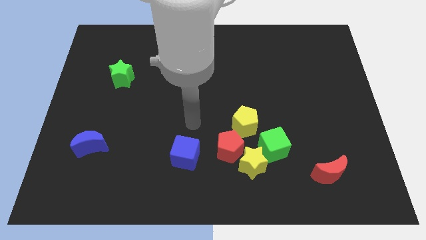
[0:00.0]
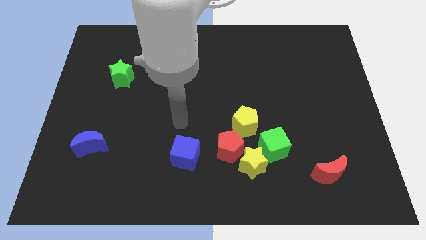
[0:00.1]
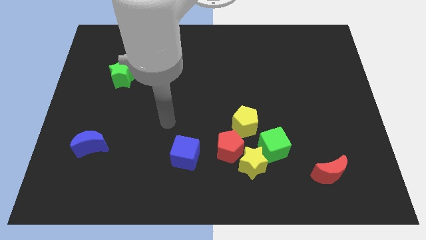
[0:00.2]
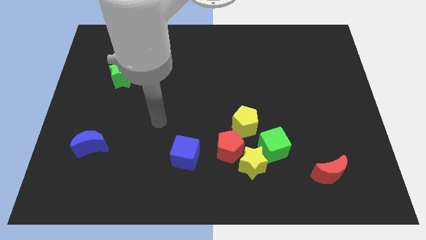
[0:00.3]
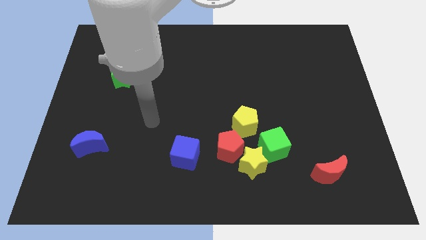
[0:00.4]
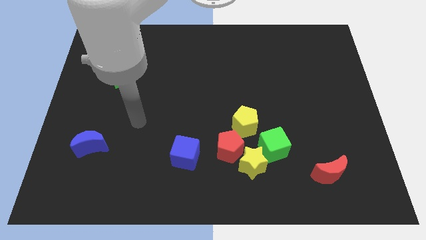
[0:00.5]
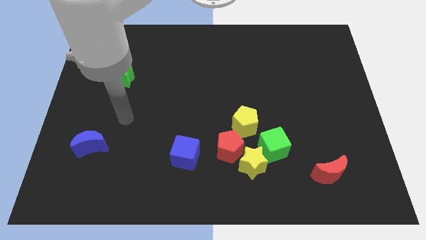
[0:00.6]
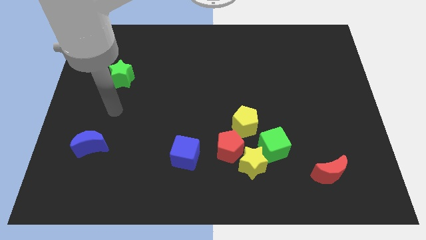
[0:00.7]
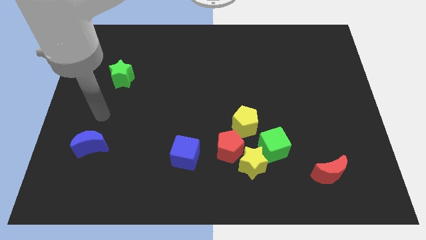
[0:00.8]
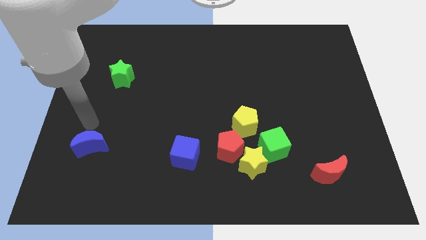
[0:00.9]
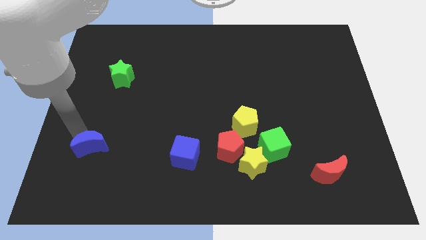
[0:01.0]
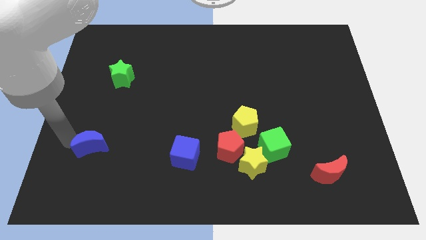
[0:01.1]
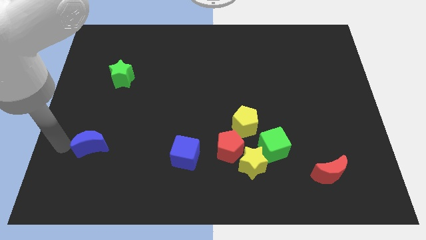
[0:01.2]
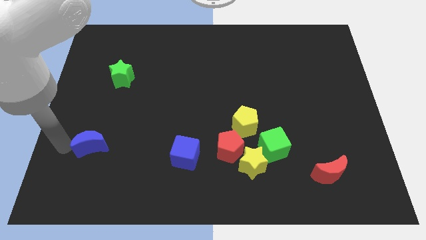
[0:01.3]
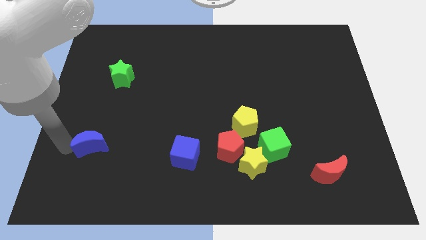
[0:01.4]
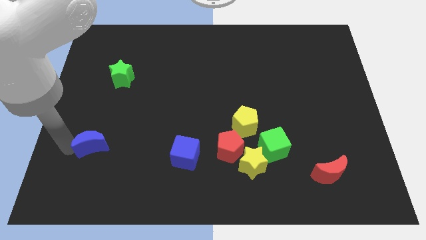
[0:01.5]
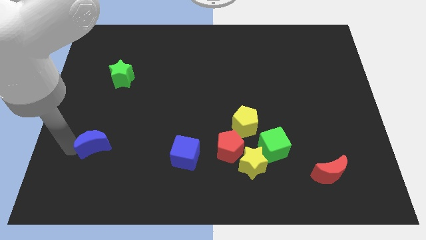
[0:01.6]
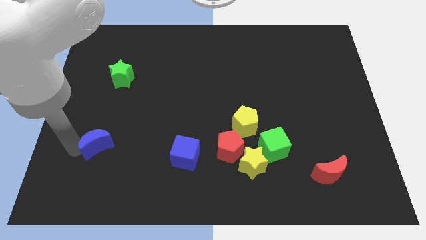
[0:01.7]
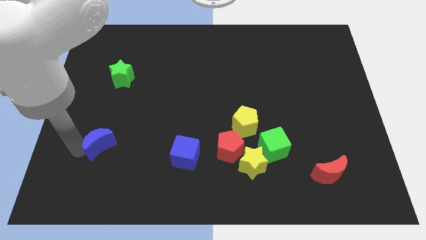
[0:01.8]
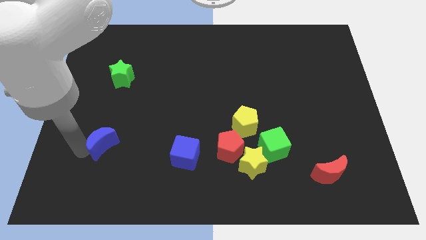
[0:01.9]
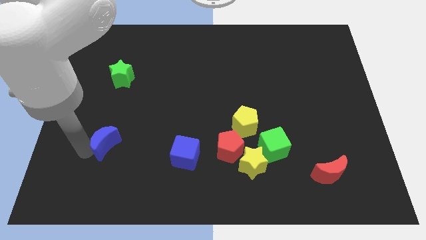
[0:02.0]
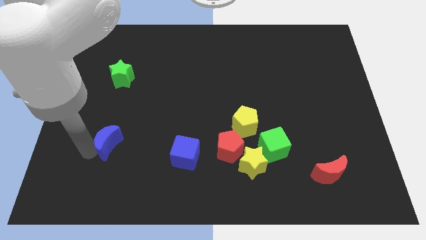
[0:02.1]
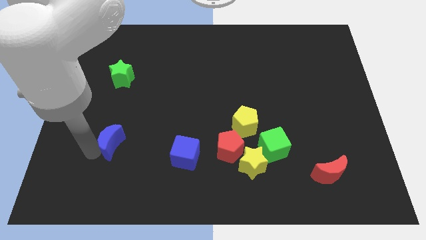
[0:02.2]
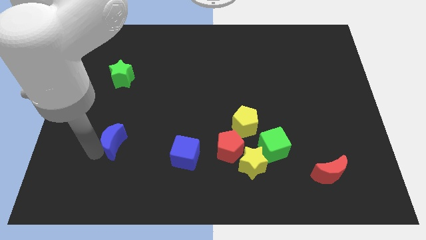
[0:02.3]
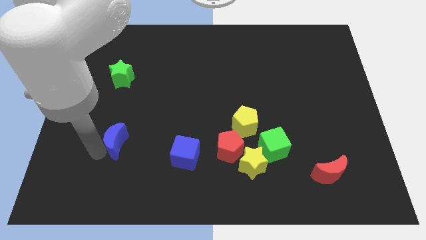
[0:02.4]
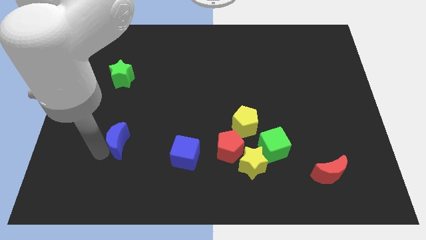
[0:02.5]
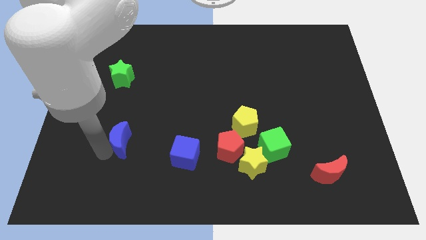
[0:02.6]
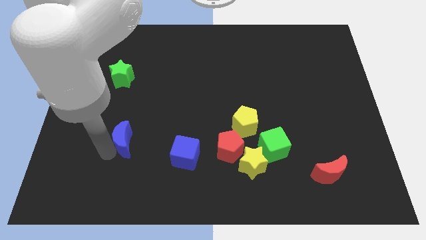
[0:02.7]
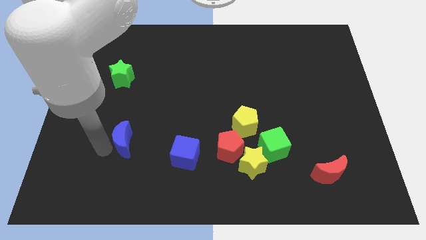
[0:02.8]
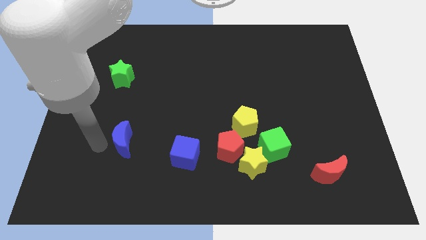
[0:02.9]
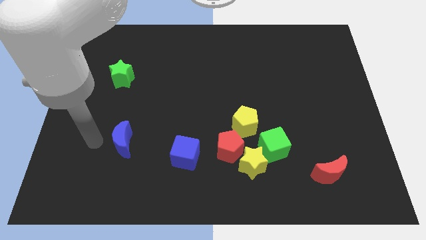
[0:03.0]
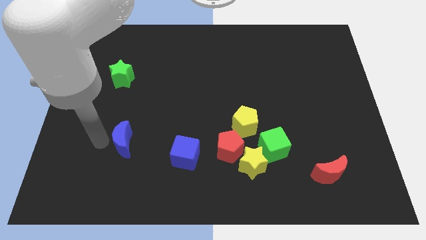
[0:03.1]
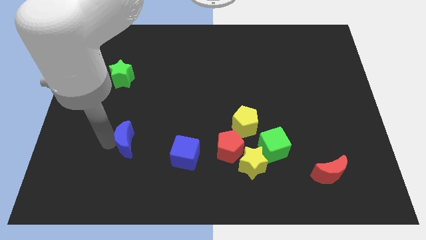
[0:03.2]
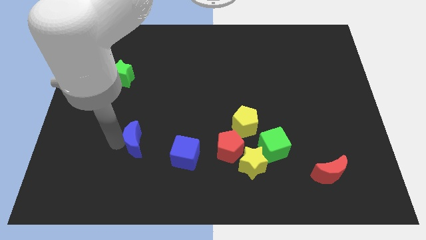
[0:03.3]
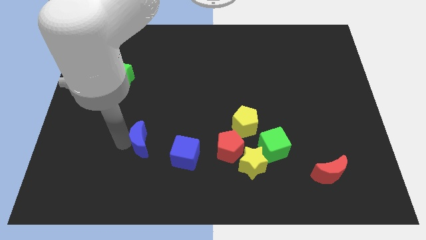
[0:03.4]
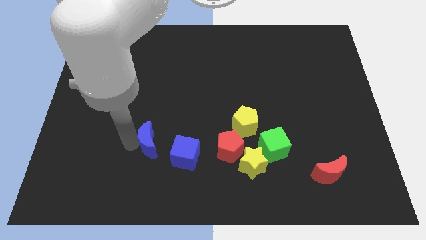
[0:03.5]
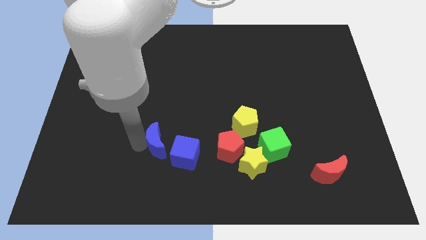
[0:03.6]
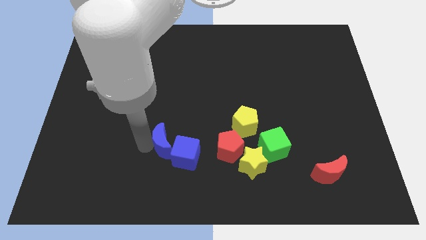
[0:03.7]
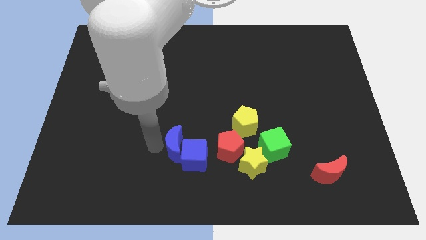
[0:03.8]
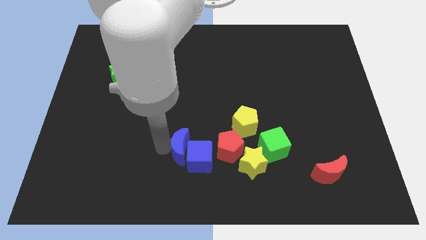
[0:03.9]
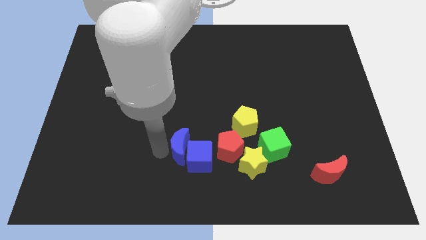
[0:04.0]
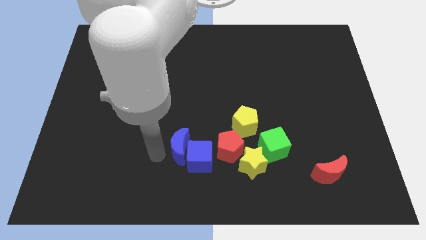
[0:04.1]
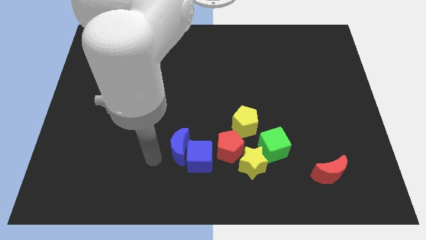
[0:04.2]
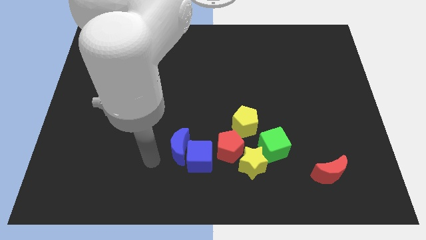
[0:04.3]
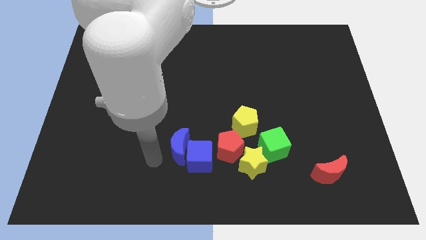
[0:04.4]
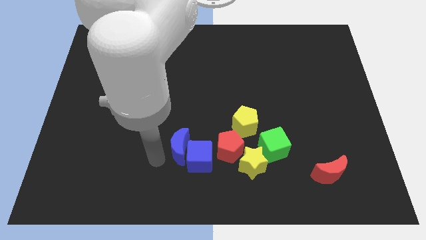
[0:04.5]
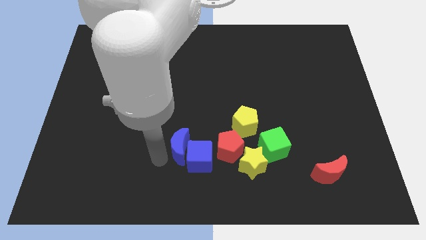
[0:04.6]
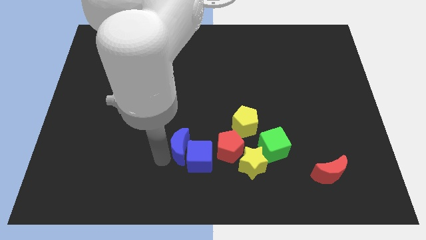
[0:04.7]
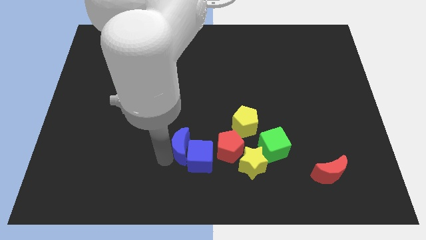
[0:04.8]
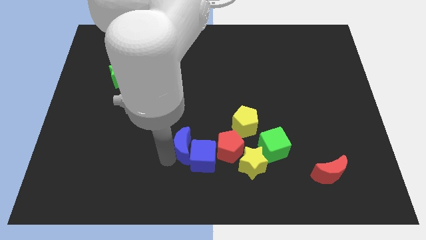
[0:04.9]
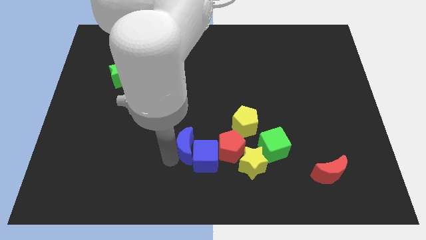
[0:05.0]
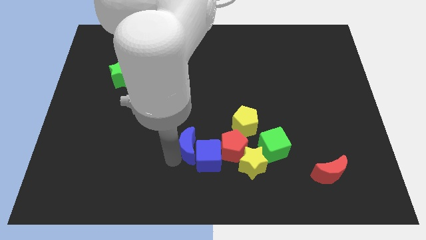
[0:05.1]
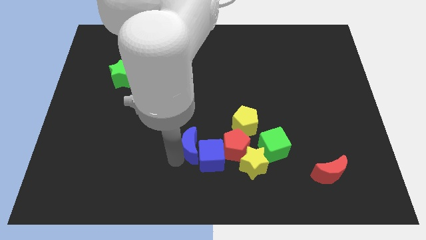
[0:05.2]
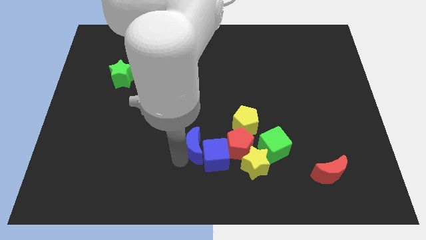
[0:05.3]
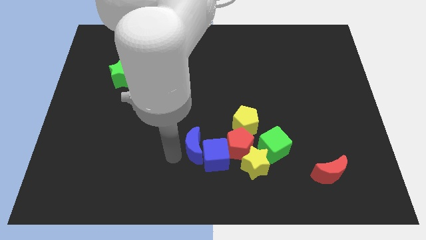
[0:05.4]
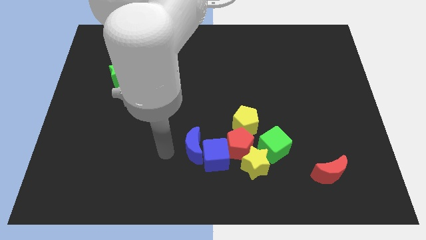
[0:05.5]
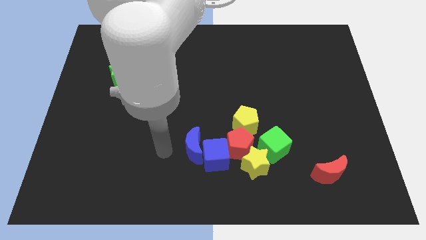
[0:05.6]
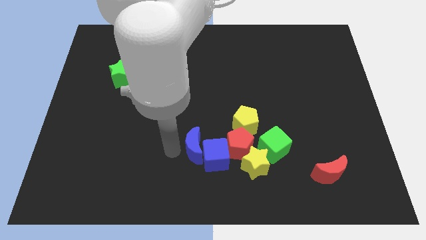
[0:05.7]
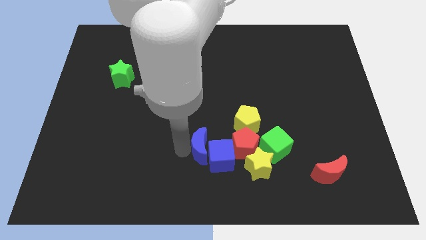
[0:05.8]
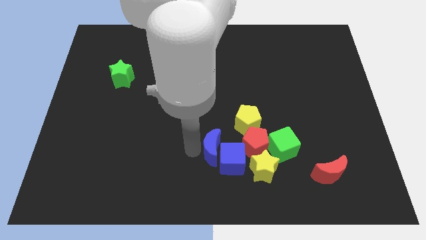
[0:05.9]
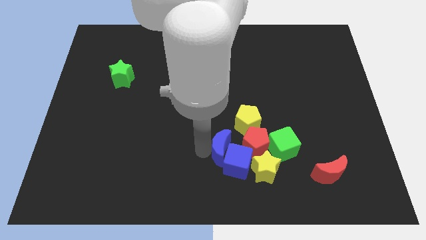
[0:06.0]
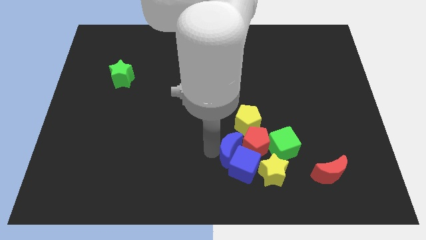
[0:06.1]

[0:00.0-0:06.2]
put the blue moon close to the red pentagon

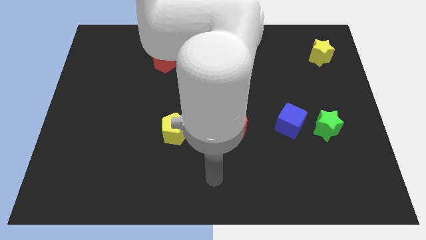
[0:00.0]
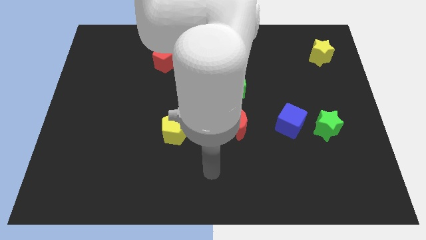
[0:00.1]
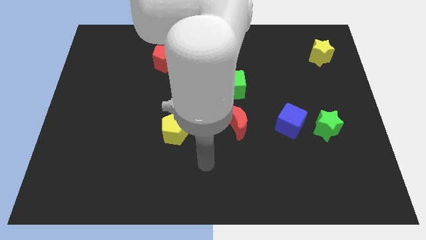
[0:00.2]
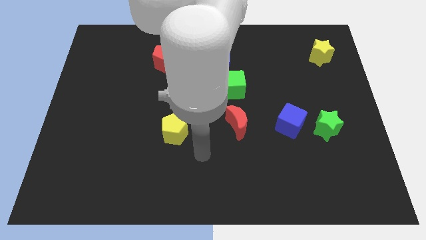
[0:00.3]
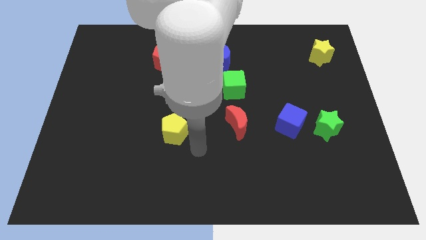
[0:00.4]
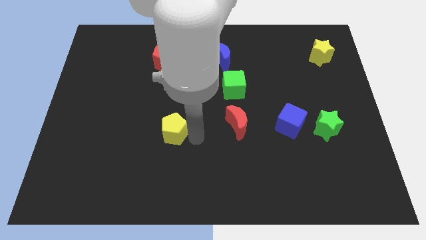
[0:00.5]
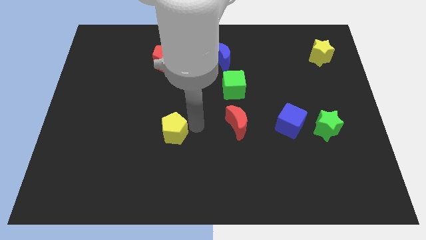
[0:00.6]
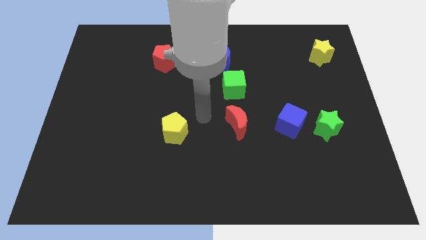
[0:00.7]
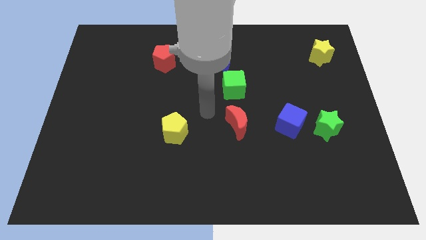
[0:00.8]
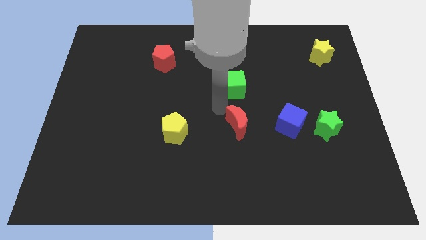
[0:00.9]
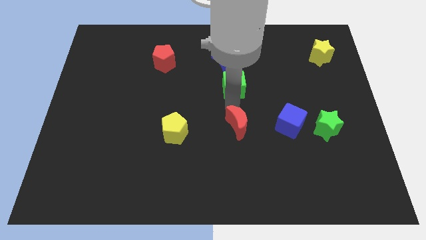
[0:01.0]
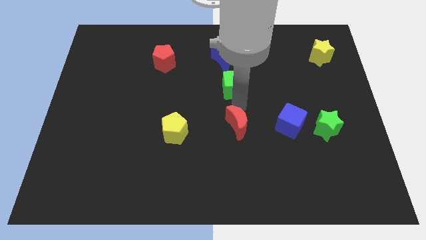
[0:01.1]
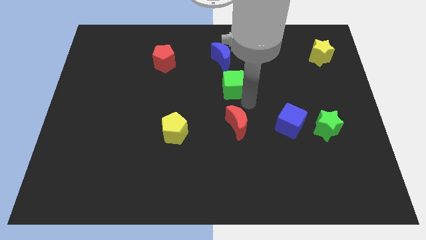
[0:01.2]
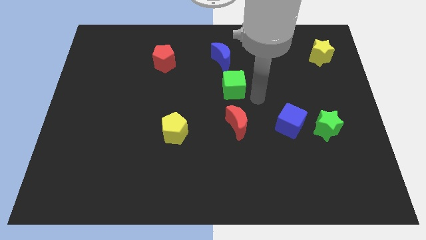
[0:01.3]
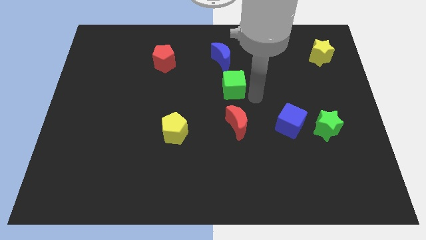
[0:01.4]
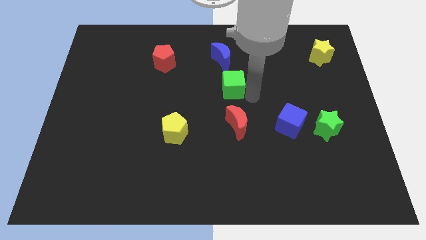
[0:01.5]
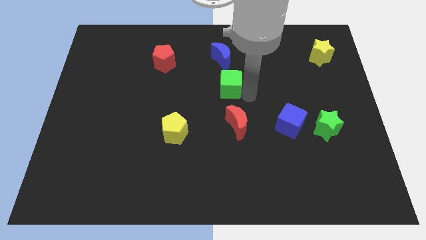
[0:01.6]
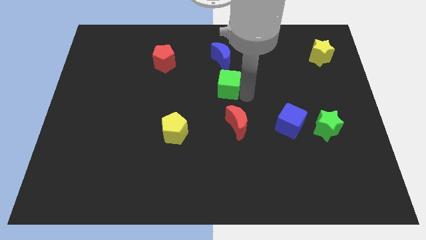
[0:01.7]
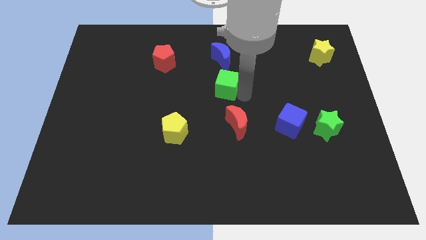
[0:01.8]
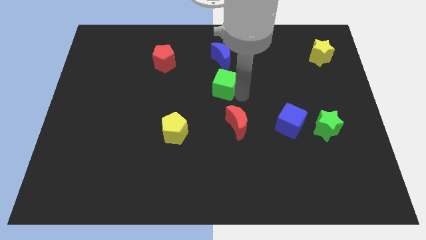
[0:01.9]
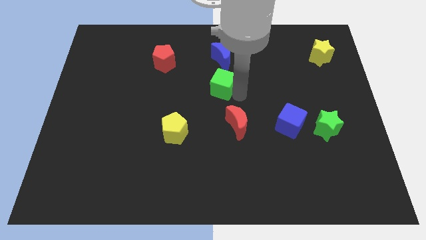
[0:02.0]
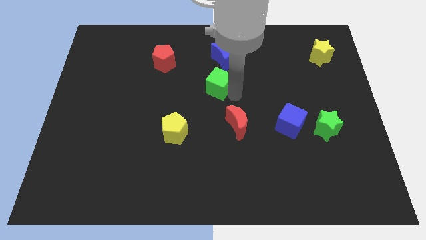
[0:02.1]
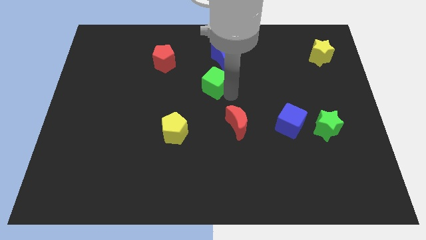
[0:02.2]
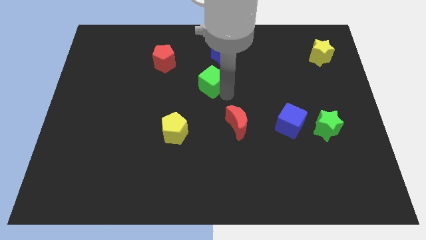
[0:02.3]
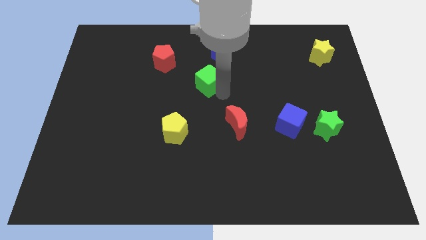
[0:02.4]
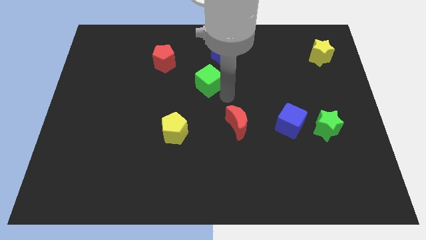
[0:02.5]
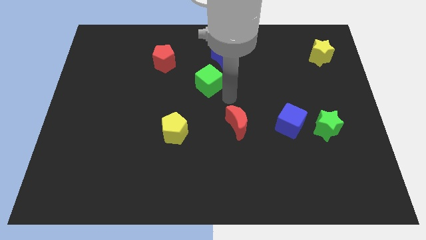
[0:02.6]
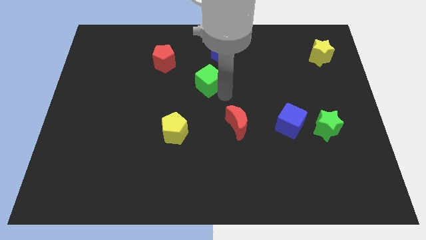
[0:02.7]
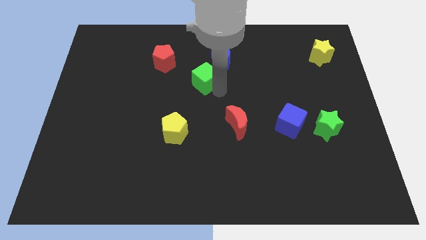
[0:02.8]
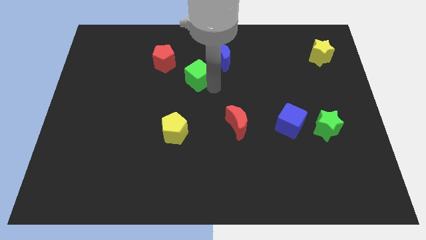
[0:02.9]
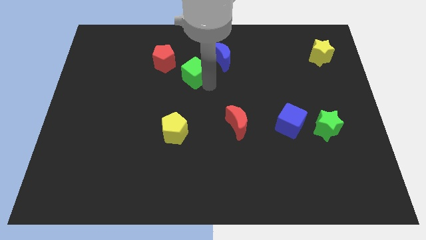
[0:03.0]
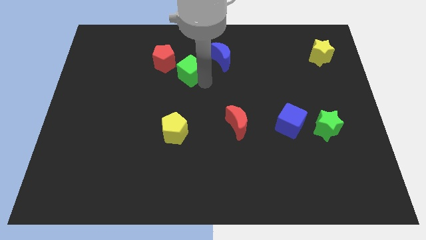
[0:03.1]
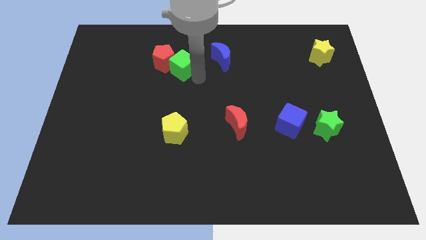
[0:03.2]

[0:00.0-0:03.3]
move the green cube to the red pentagon
